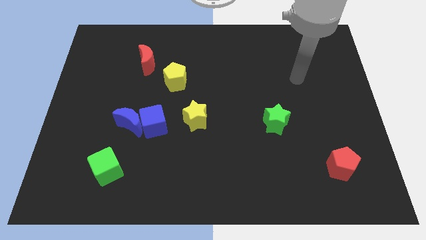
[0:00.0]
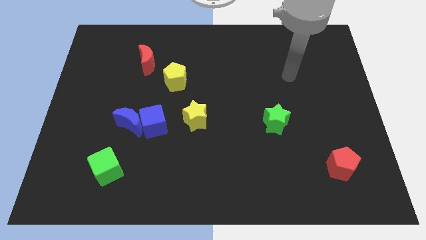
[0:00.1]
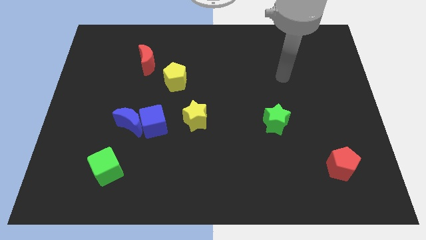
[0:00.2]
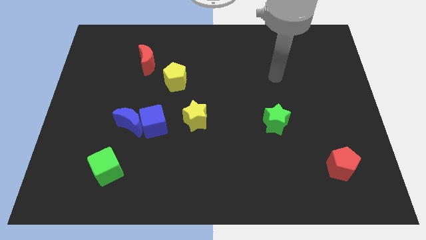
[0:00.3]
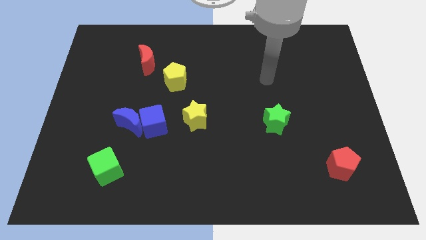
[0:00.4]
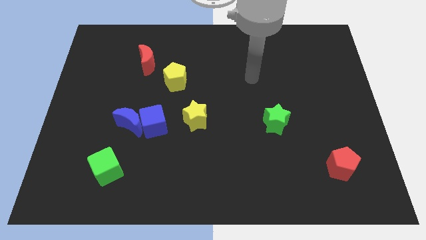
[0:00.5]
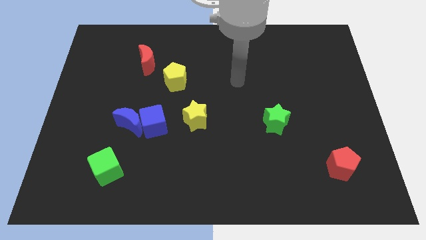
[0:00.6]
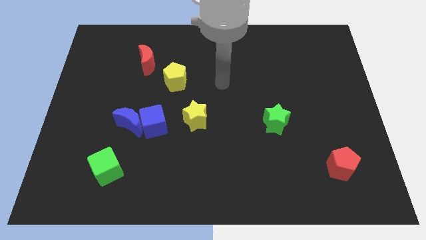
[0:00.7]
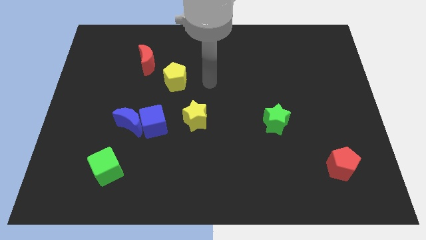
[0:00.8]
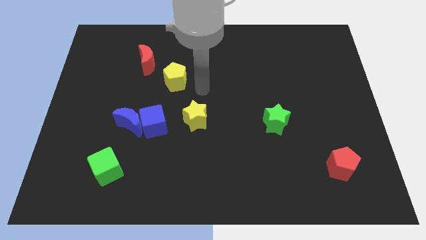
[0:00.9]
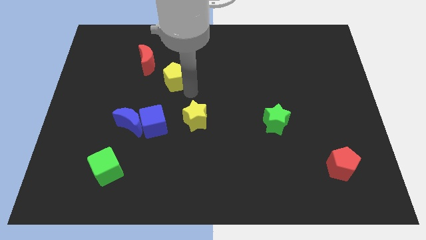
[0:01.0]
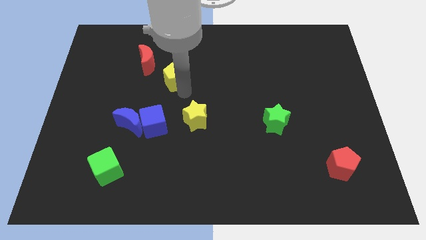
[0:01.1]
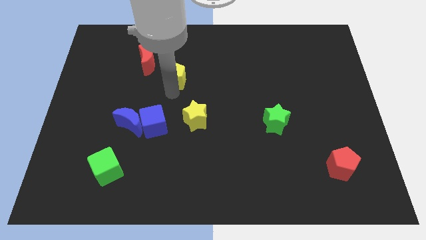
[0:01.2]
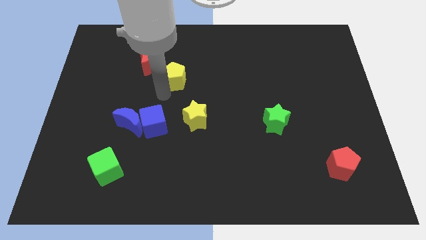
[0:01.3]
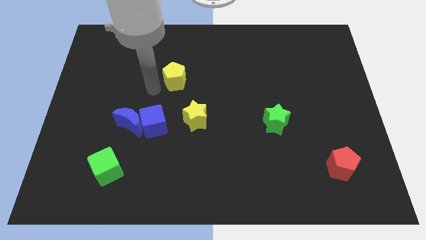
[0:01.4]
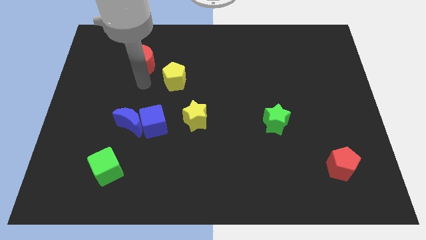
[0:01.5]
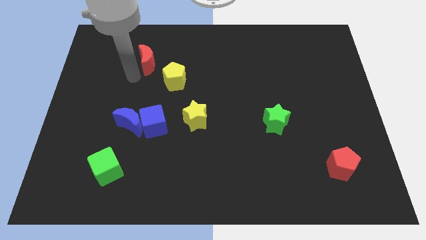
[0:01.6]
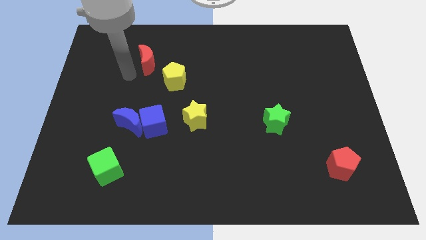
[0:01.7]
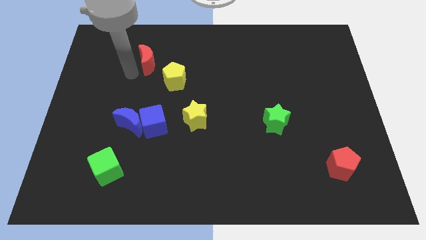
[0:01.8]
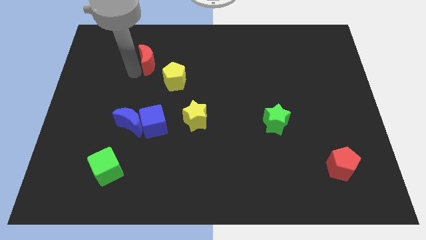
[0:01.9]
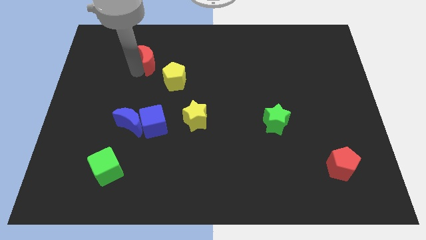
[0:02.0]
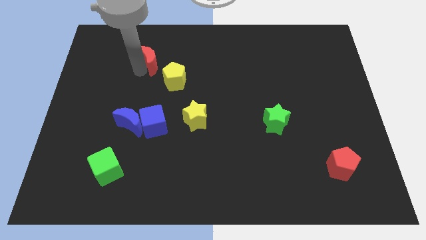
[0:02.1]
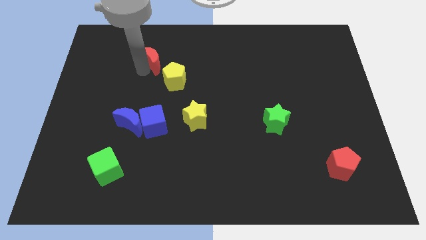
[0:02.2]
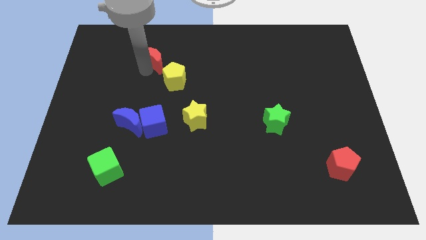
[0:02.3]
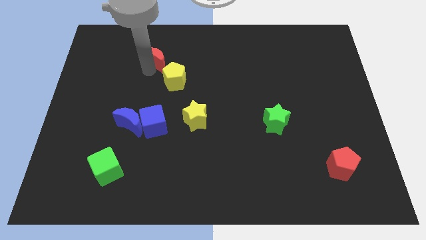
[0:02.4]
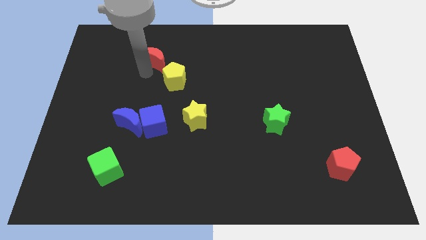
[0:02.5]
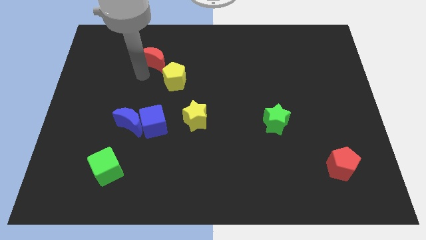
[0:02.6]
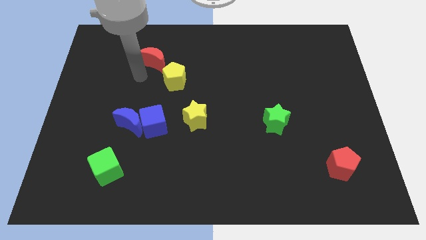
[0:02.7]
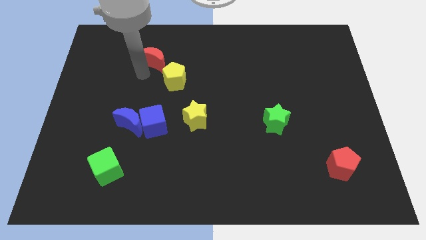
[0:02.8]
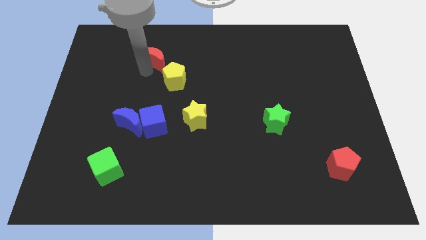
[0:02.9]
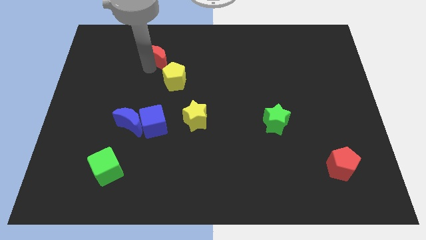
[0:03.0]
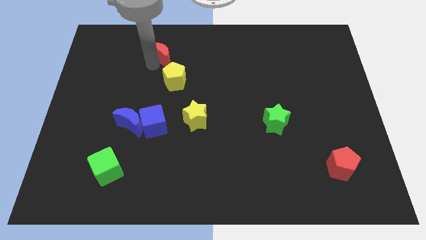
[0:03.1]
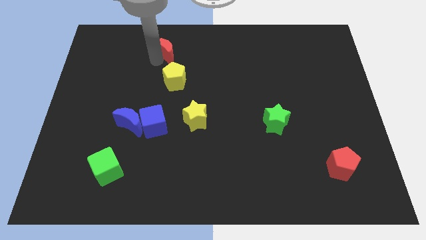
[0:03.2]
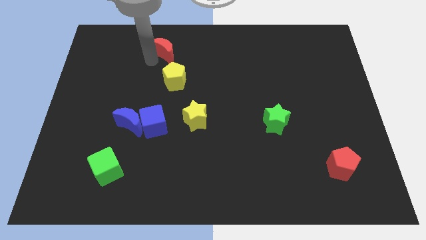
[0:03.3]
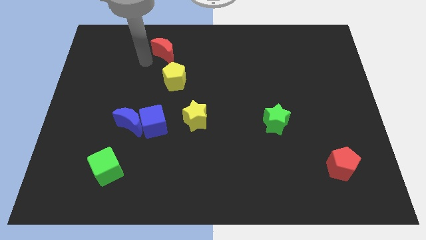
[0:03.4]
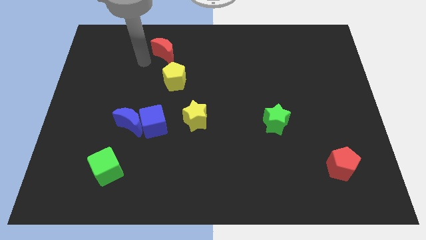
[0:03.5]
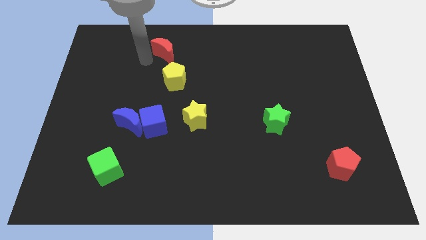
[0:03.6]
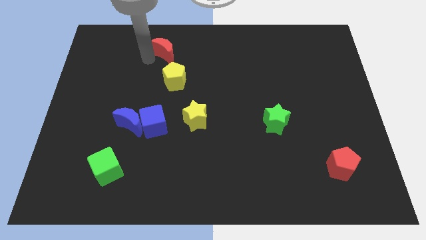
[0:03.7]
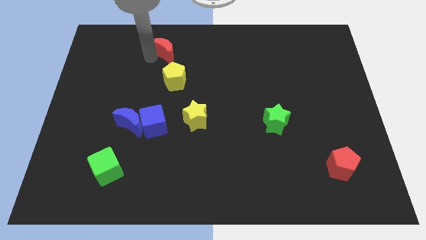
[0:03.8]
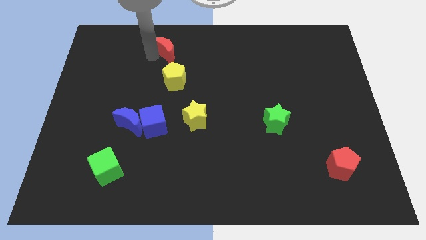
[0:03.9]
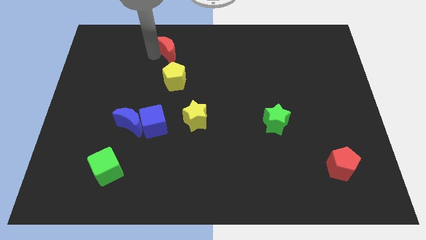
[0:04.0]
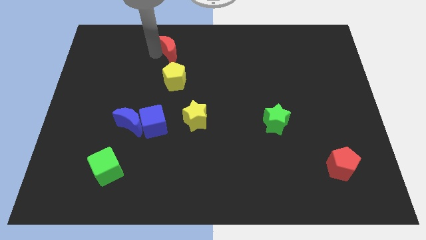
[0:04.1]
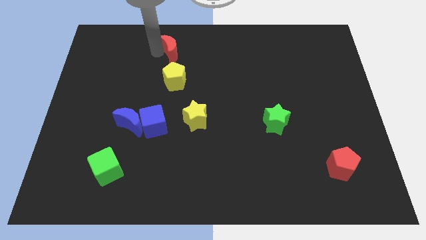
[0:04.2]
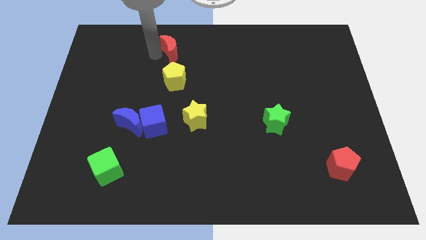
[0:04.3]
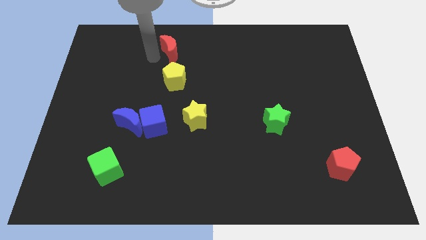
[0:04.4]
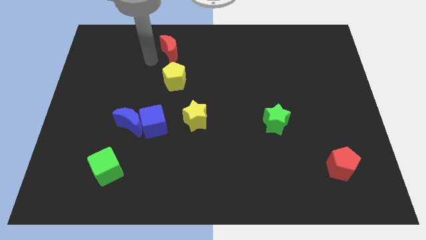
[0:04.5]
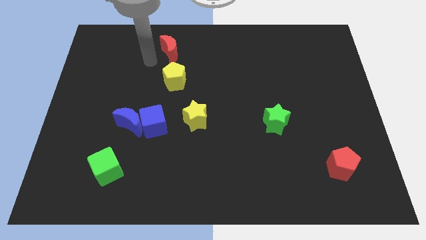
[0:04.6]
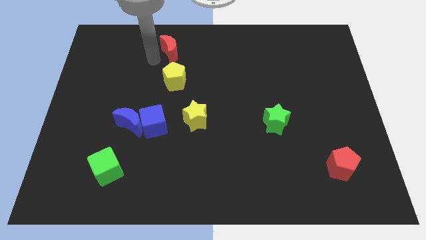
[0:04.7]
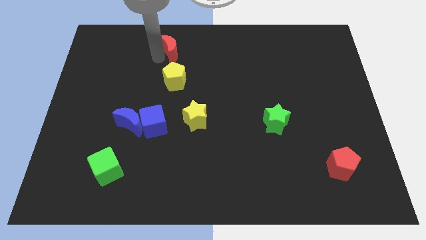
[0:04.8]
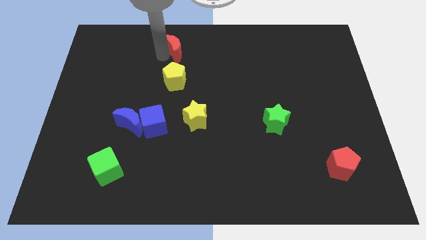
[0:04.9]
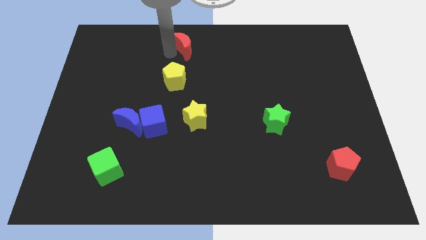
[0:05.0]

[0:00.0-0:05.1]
slide the red moon to the top

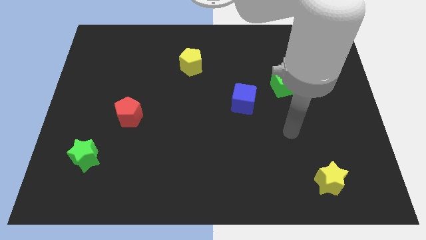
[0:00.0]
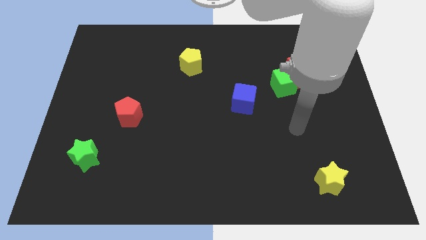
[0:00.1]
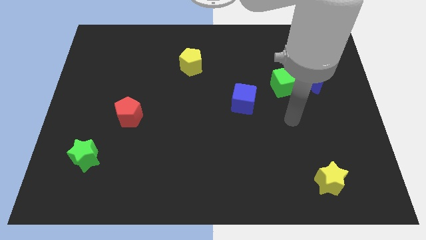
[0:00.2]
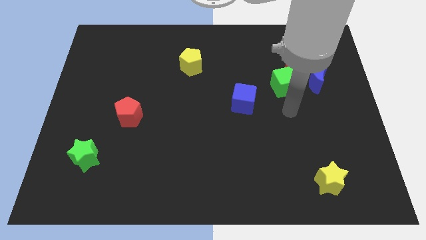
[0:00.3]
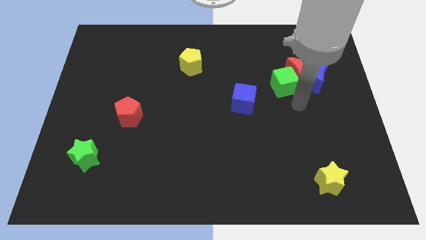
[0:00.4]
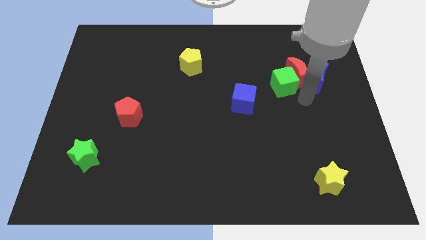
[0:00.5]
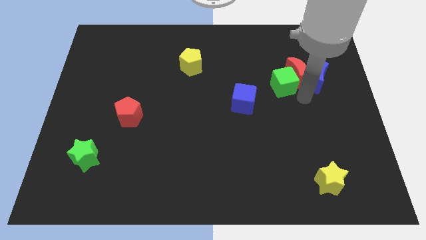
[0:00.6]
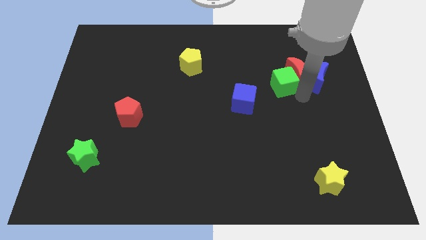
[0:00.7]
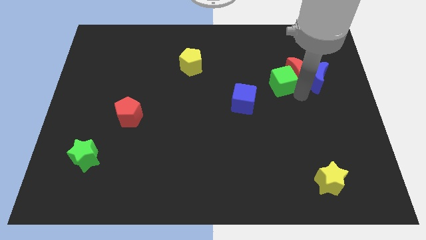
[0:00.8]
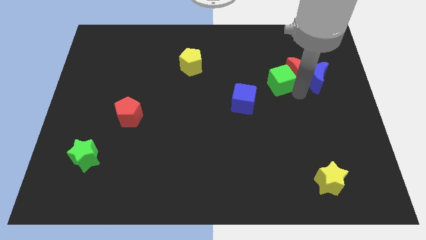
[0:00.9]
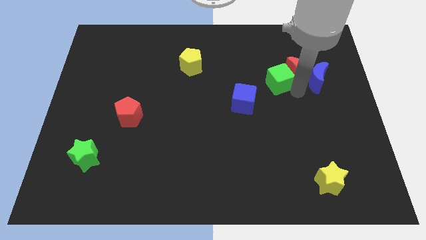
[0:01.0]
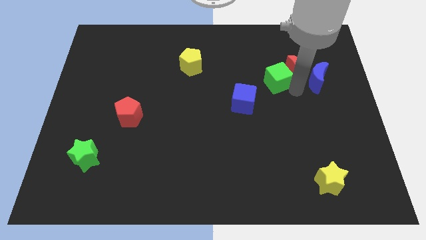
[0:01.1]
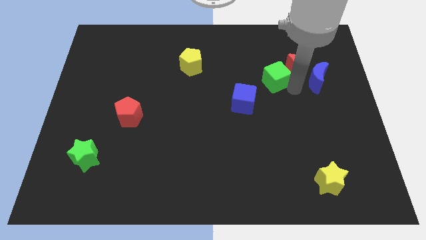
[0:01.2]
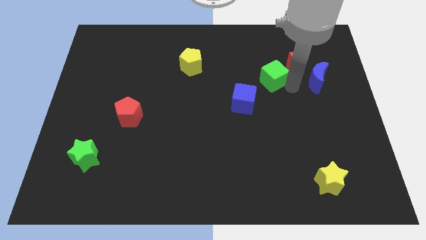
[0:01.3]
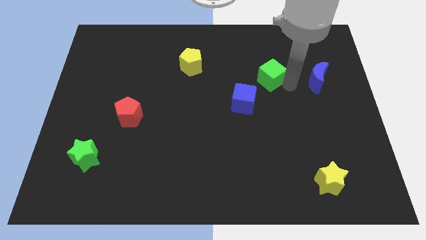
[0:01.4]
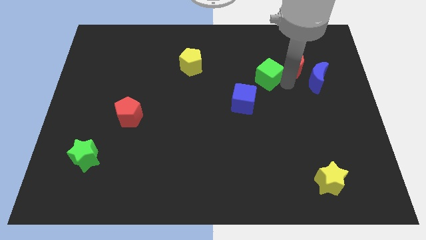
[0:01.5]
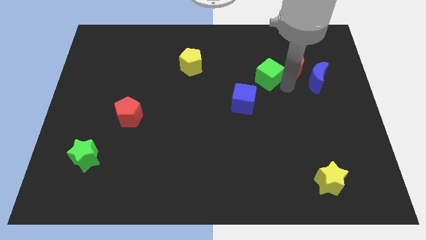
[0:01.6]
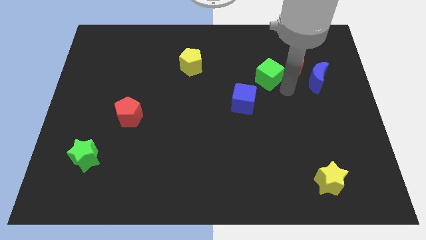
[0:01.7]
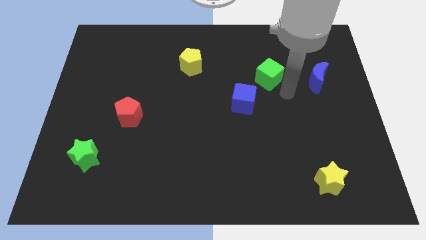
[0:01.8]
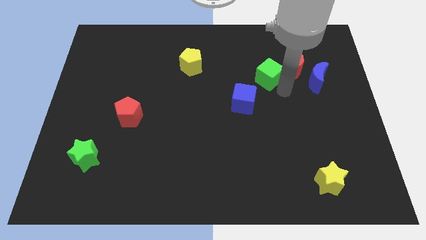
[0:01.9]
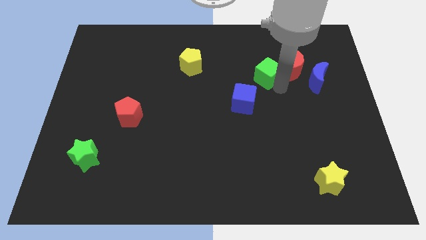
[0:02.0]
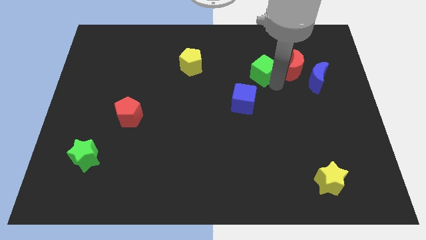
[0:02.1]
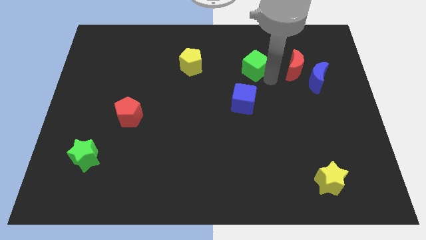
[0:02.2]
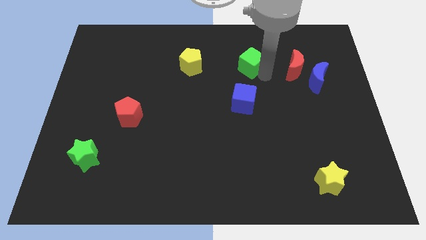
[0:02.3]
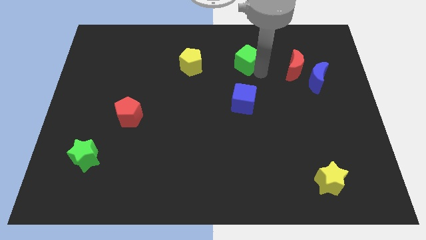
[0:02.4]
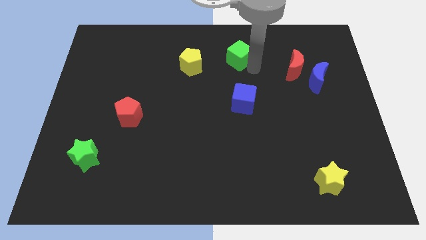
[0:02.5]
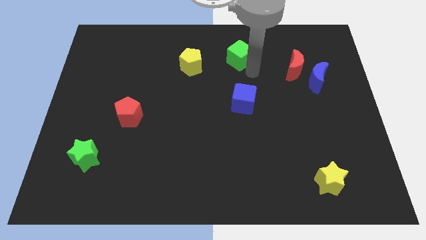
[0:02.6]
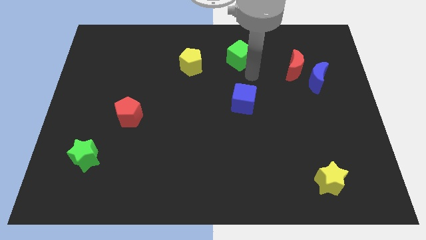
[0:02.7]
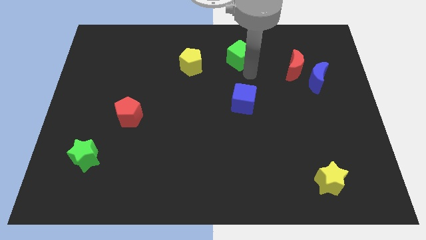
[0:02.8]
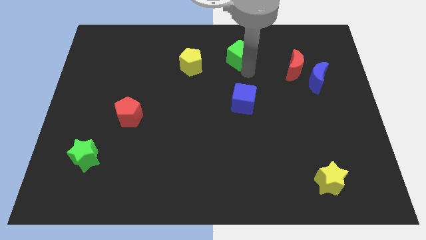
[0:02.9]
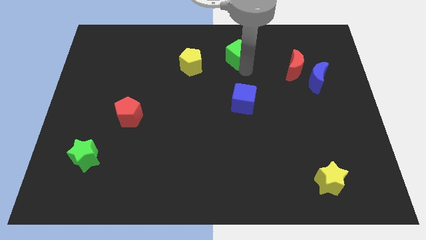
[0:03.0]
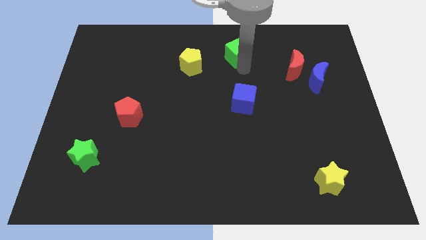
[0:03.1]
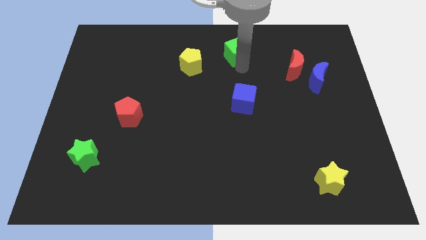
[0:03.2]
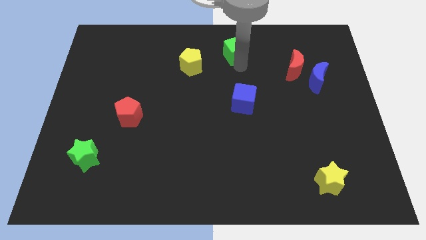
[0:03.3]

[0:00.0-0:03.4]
put the green cube to the towards your base
